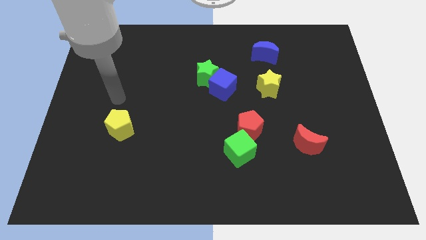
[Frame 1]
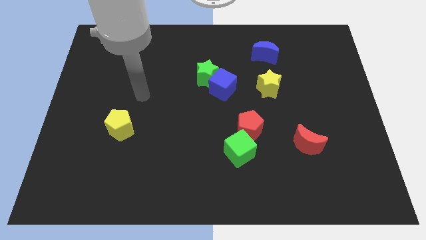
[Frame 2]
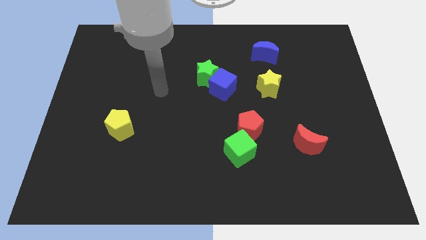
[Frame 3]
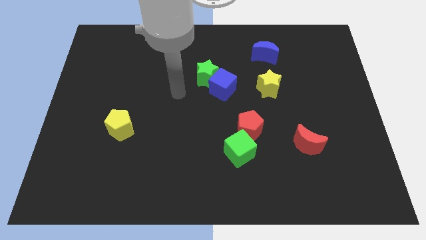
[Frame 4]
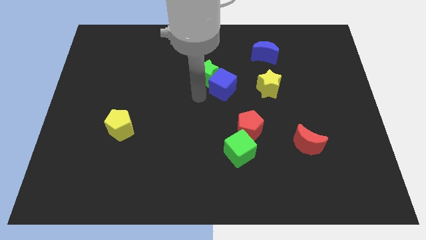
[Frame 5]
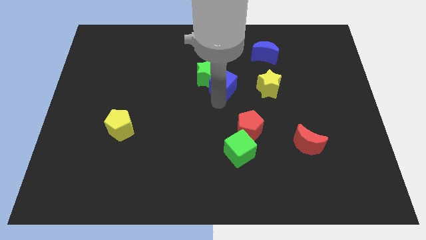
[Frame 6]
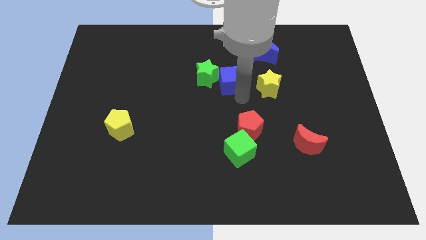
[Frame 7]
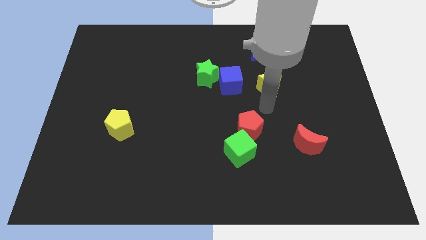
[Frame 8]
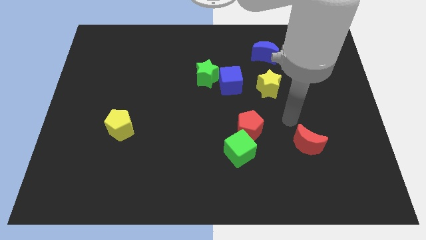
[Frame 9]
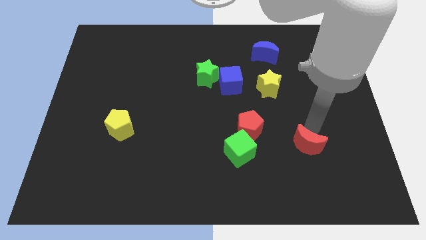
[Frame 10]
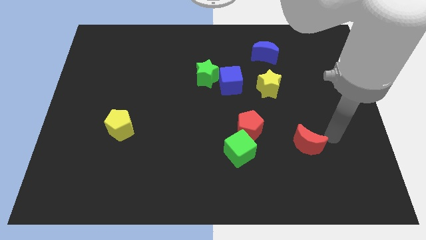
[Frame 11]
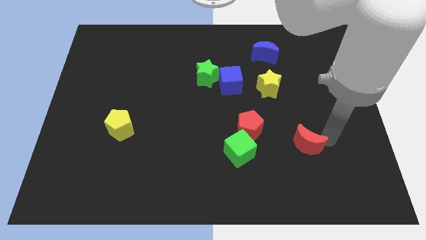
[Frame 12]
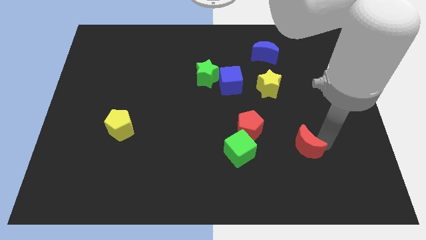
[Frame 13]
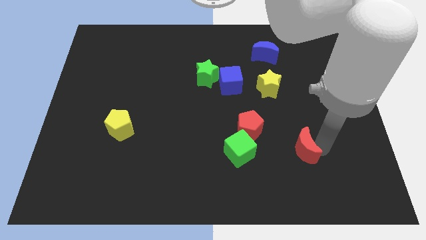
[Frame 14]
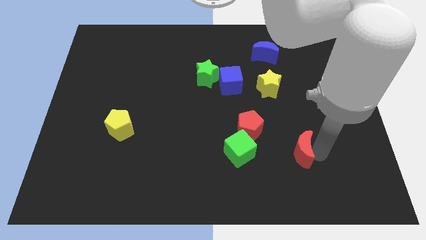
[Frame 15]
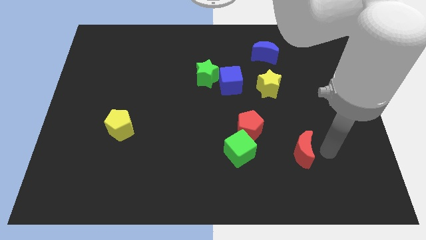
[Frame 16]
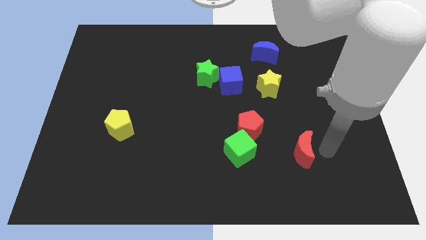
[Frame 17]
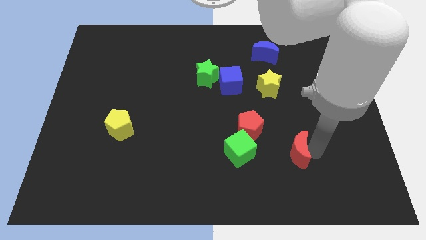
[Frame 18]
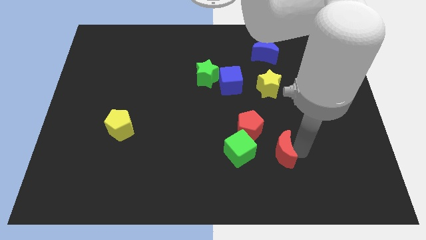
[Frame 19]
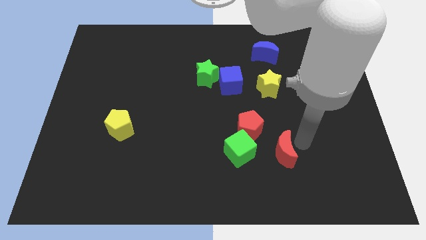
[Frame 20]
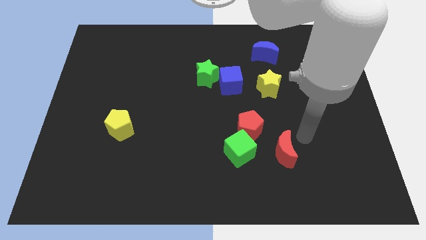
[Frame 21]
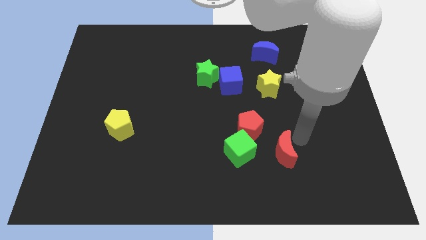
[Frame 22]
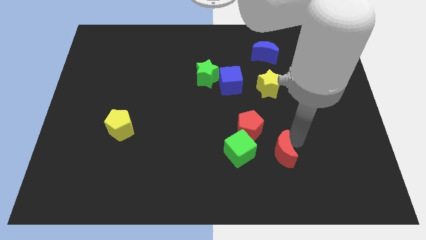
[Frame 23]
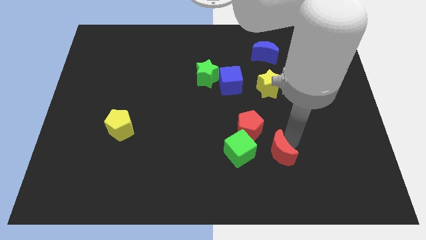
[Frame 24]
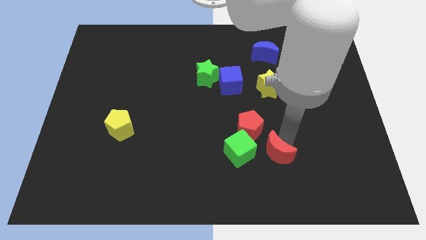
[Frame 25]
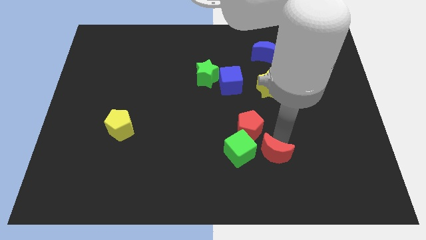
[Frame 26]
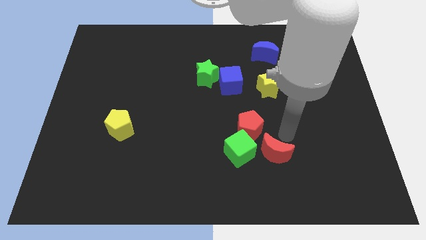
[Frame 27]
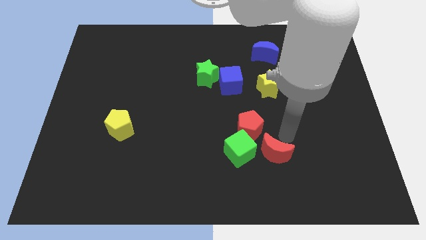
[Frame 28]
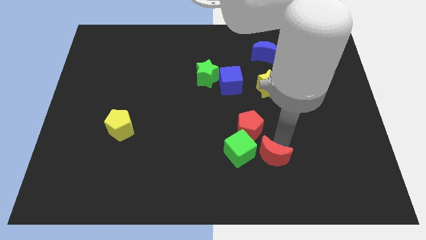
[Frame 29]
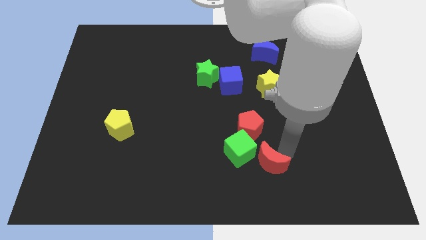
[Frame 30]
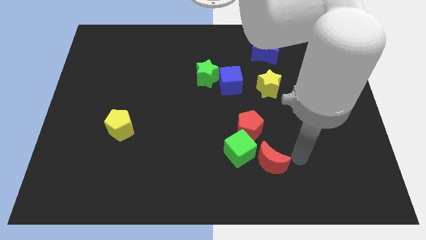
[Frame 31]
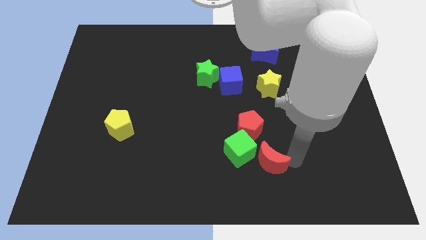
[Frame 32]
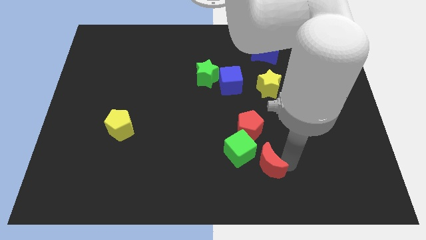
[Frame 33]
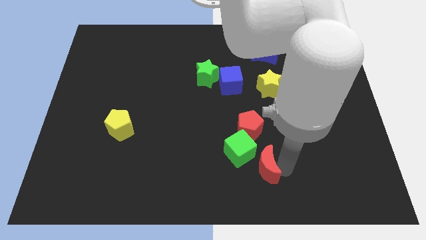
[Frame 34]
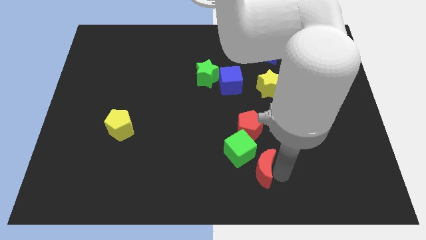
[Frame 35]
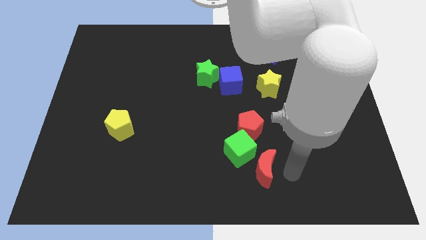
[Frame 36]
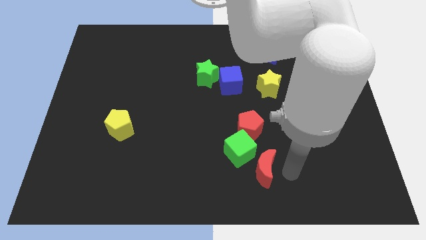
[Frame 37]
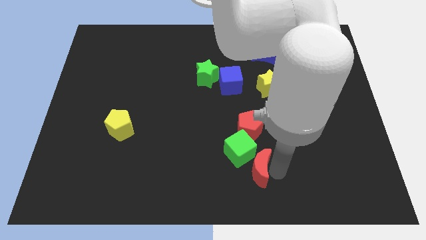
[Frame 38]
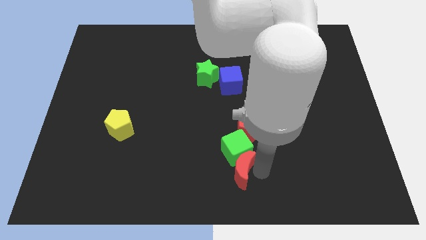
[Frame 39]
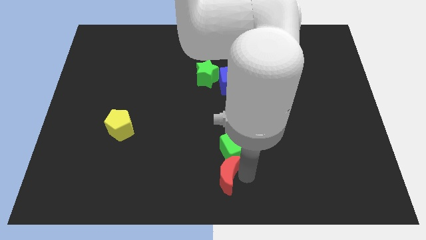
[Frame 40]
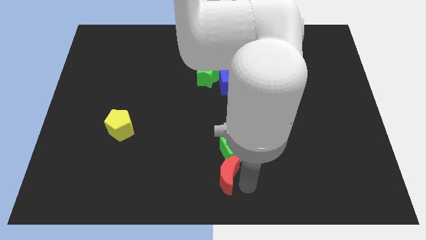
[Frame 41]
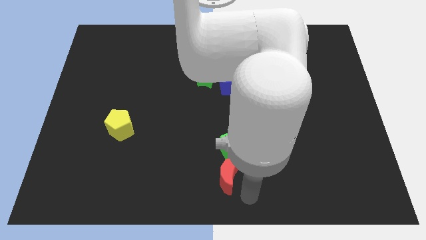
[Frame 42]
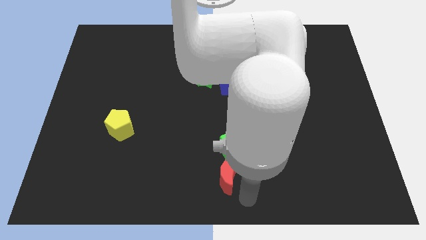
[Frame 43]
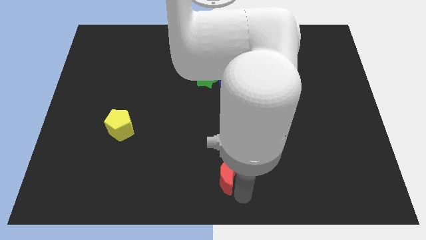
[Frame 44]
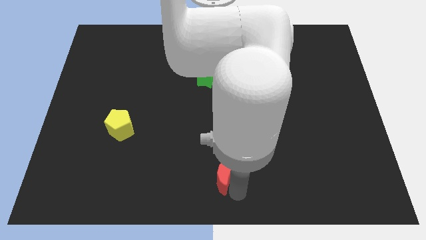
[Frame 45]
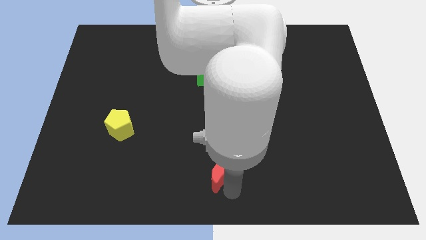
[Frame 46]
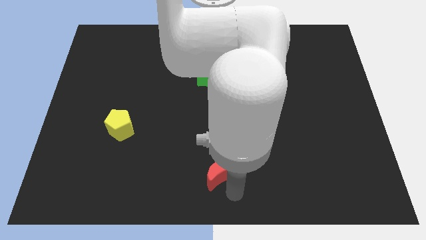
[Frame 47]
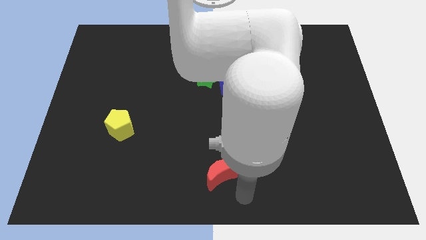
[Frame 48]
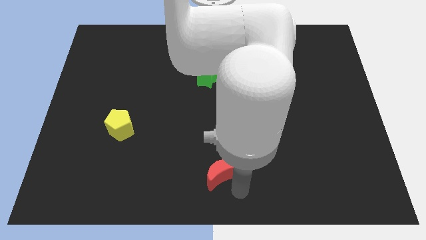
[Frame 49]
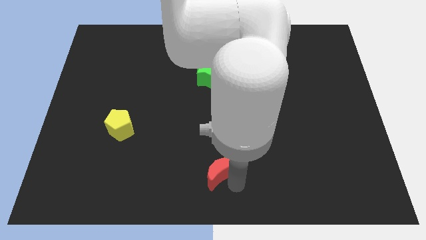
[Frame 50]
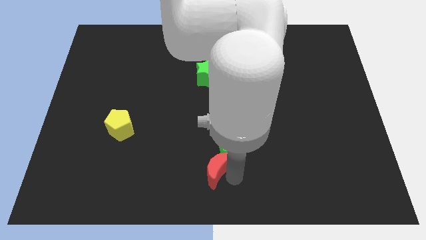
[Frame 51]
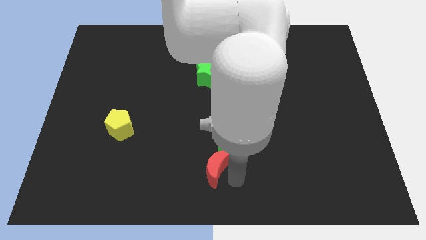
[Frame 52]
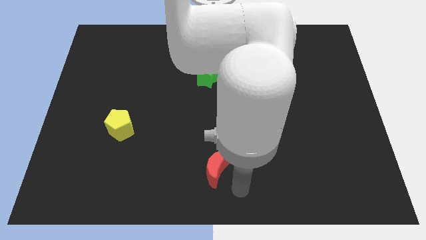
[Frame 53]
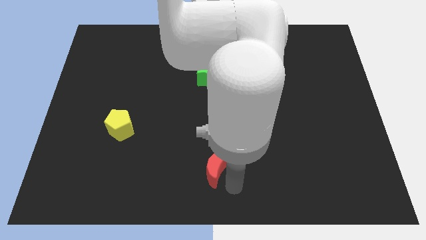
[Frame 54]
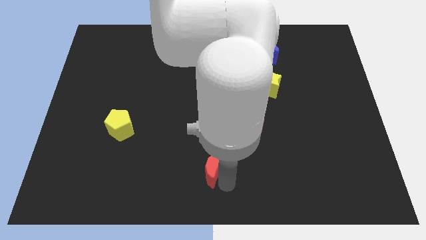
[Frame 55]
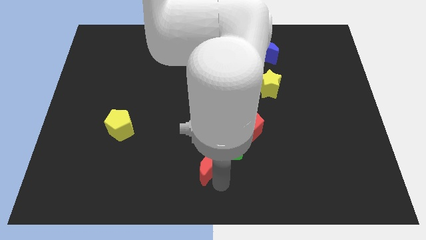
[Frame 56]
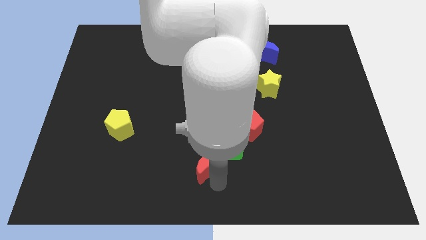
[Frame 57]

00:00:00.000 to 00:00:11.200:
push the red moon to the left

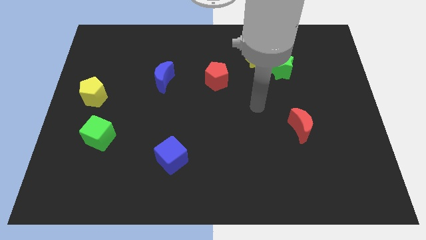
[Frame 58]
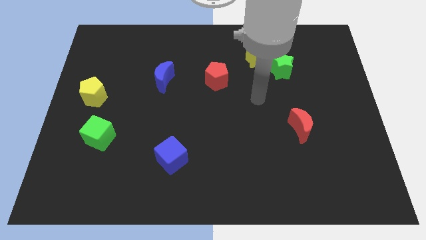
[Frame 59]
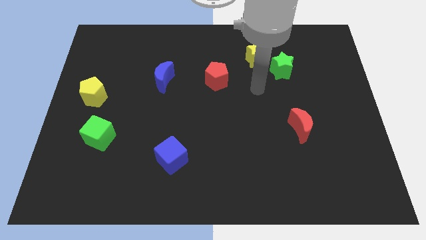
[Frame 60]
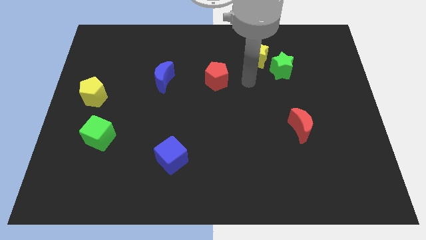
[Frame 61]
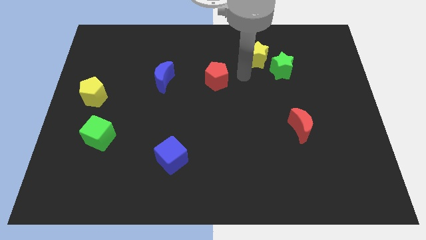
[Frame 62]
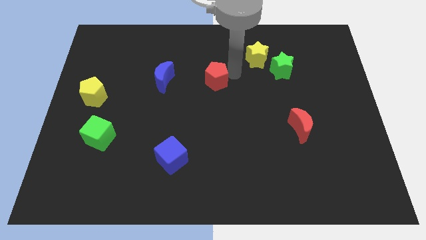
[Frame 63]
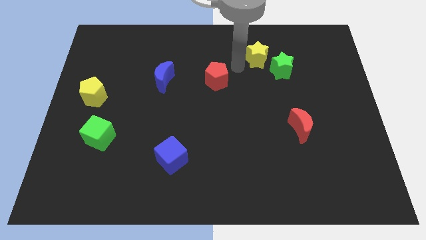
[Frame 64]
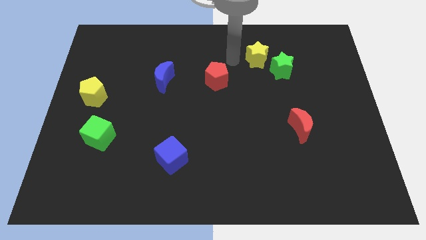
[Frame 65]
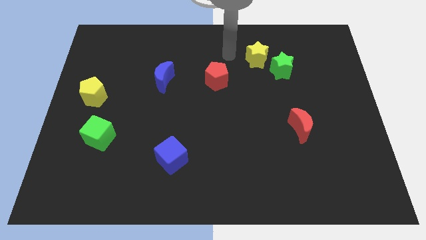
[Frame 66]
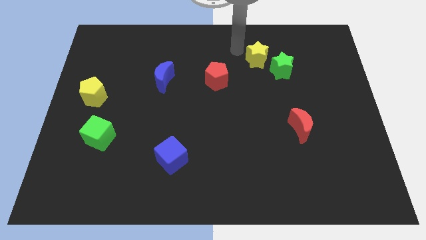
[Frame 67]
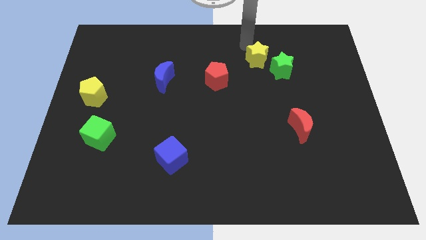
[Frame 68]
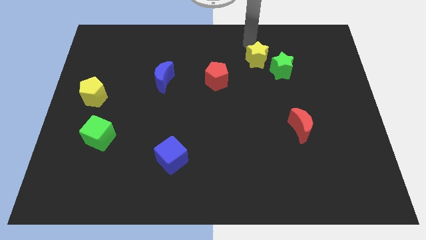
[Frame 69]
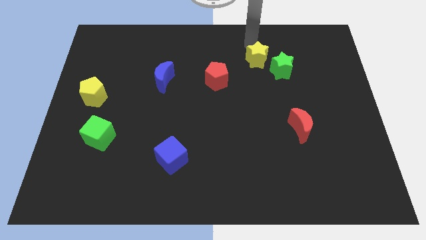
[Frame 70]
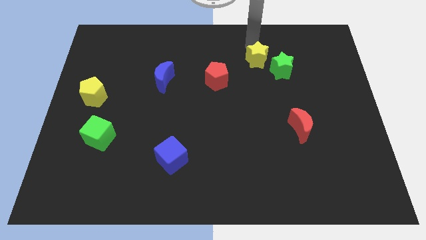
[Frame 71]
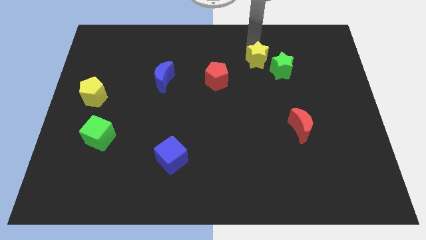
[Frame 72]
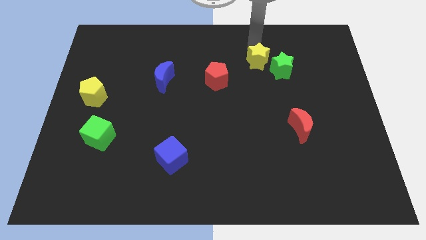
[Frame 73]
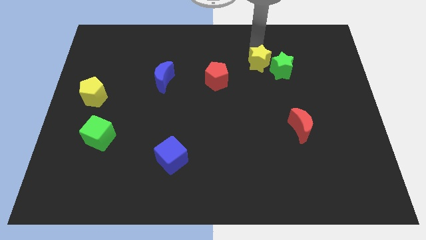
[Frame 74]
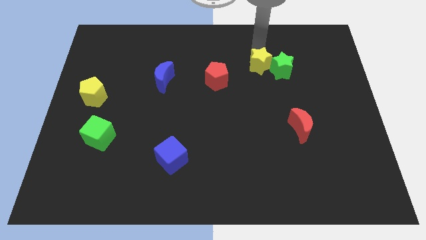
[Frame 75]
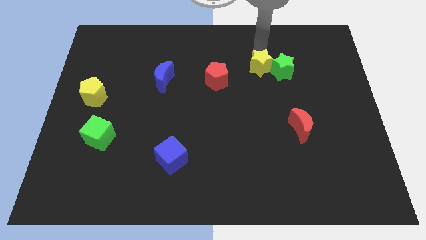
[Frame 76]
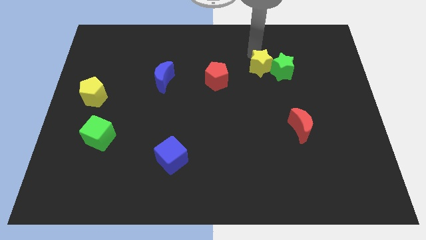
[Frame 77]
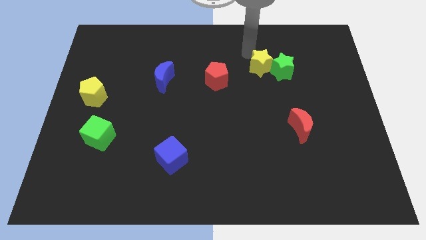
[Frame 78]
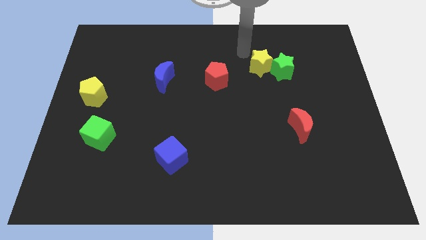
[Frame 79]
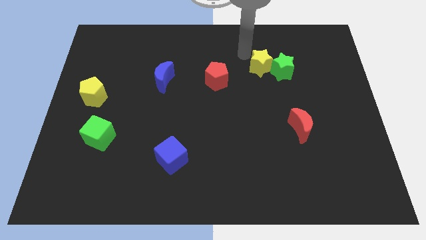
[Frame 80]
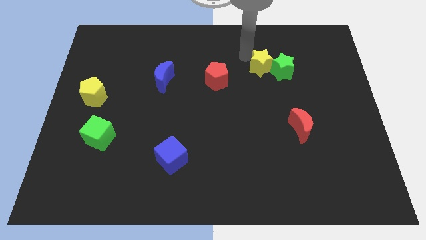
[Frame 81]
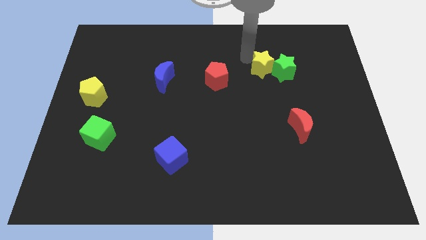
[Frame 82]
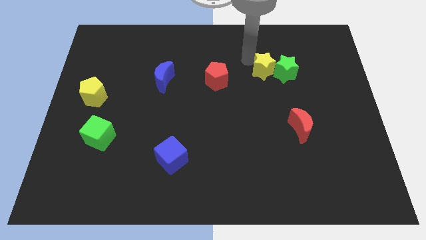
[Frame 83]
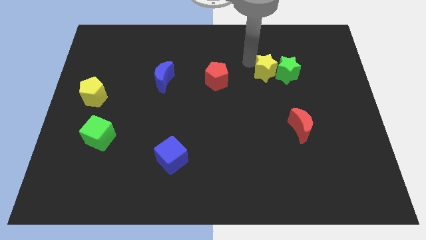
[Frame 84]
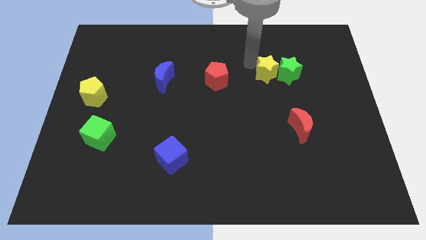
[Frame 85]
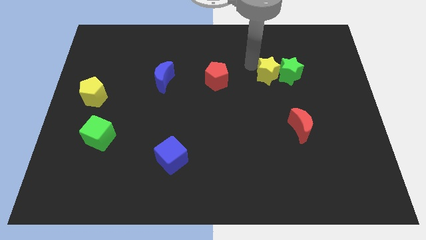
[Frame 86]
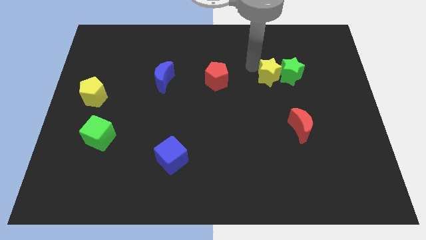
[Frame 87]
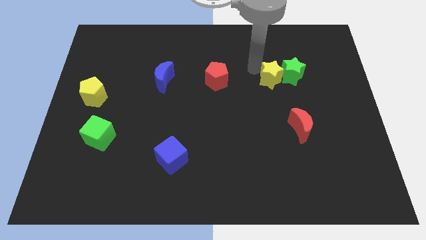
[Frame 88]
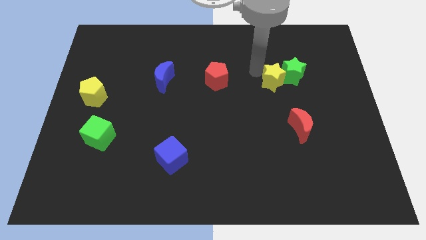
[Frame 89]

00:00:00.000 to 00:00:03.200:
move the yellow star a little downwards and to the right
